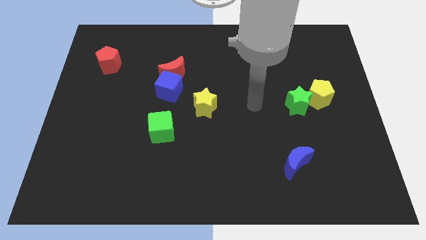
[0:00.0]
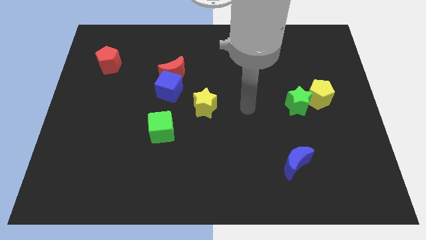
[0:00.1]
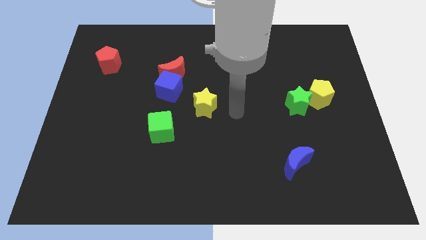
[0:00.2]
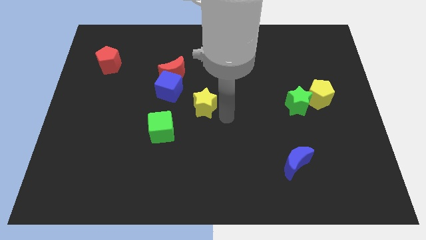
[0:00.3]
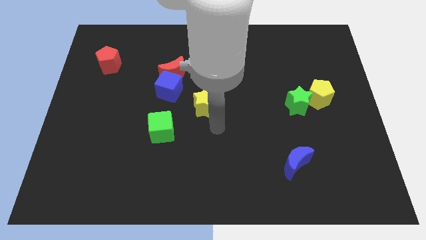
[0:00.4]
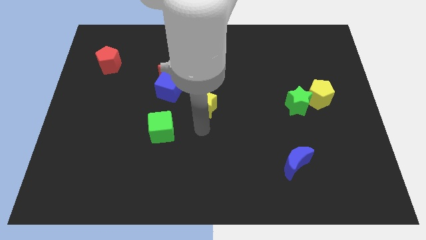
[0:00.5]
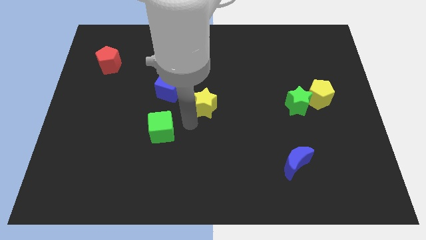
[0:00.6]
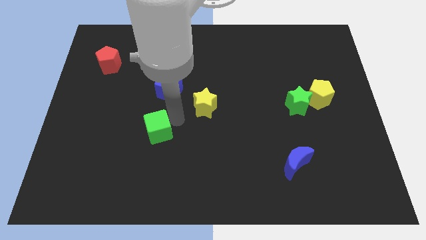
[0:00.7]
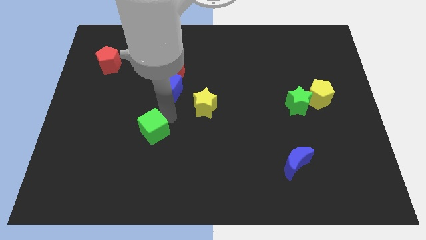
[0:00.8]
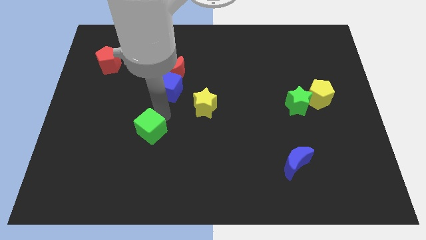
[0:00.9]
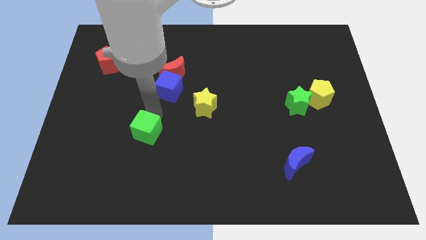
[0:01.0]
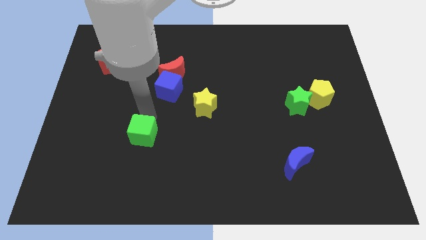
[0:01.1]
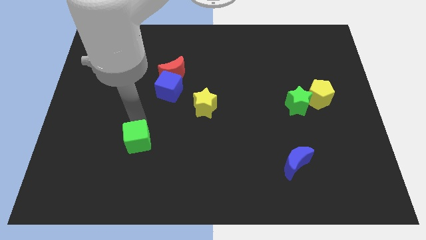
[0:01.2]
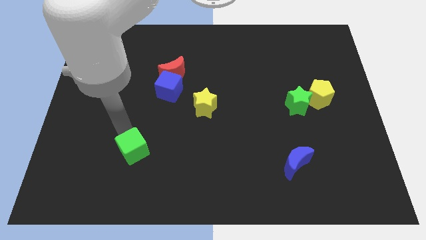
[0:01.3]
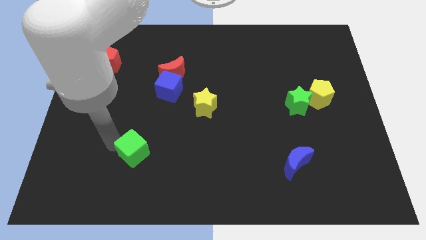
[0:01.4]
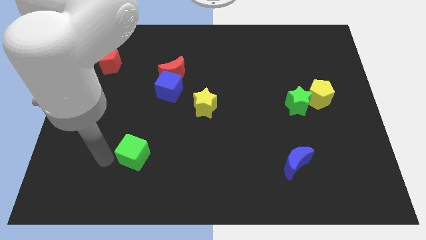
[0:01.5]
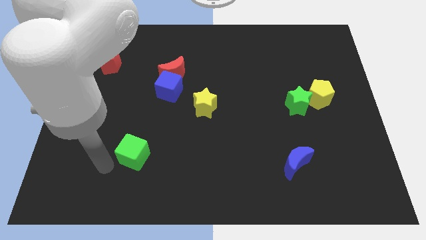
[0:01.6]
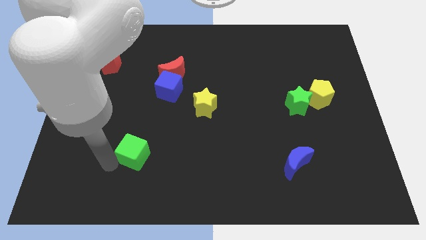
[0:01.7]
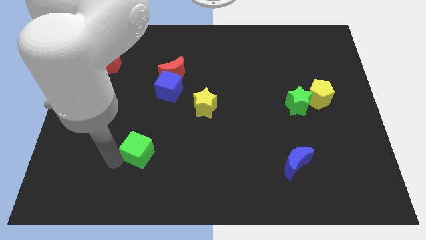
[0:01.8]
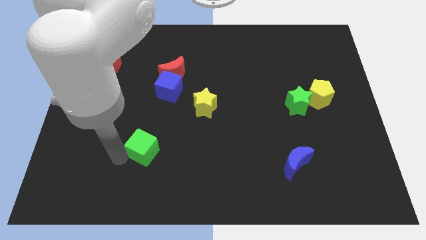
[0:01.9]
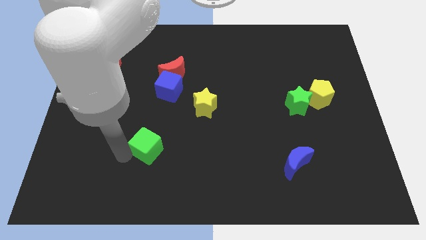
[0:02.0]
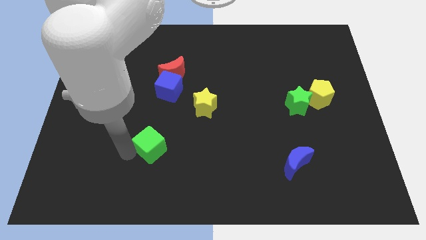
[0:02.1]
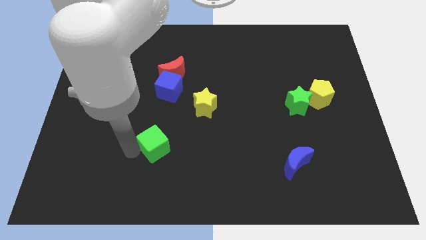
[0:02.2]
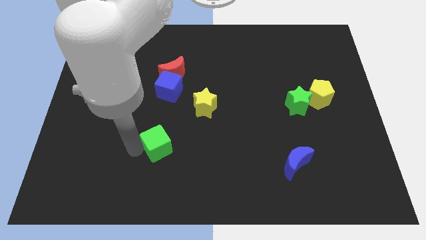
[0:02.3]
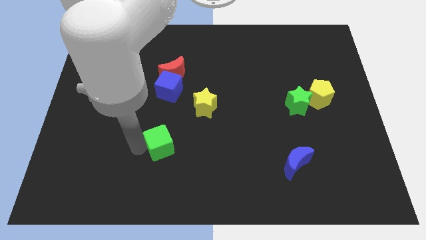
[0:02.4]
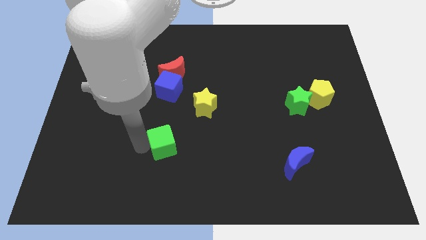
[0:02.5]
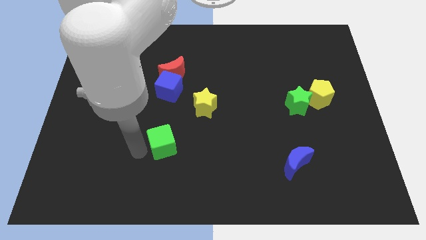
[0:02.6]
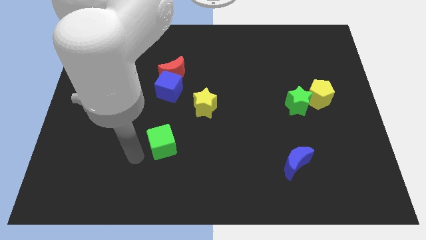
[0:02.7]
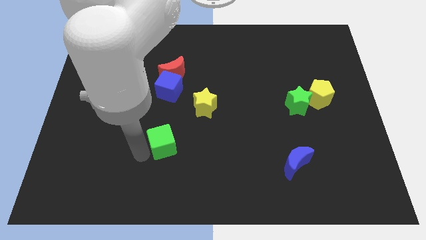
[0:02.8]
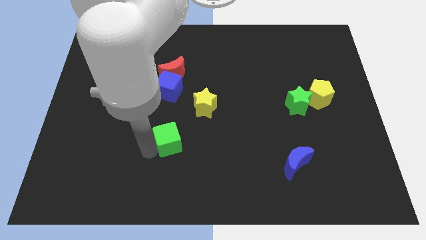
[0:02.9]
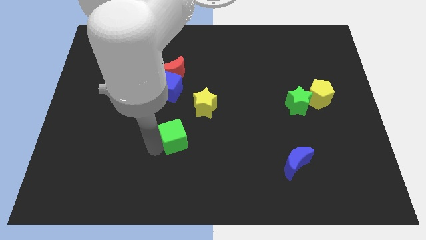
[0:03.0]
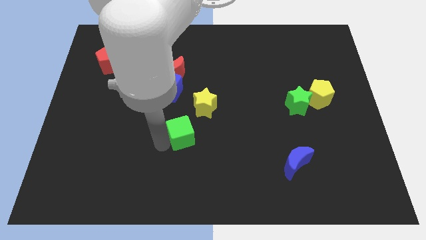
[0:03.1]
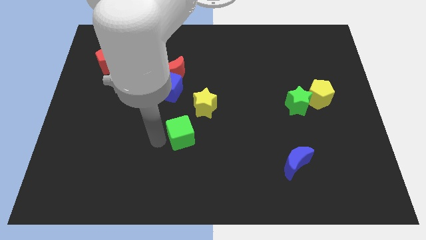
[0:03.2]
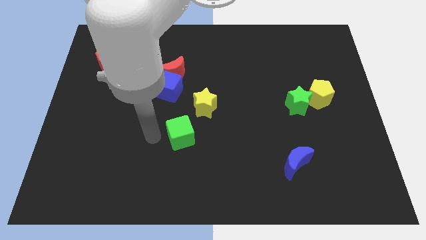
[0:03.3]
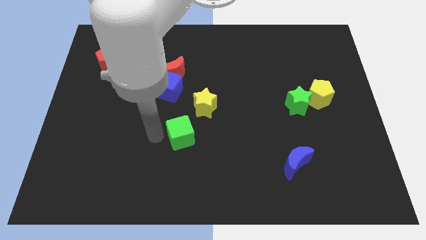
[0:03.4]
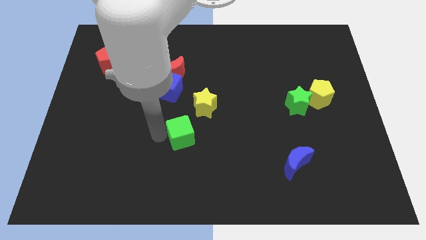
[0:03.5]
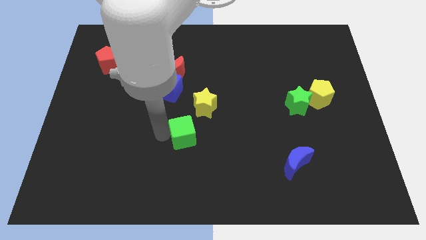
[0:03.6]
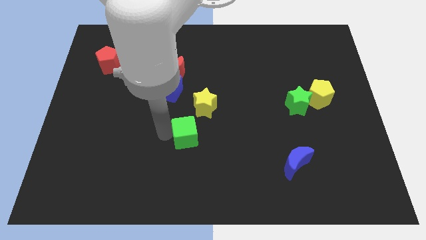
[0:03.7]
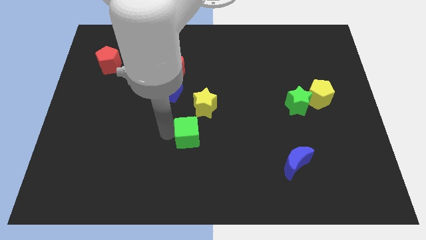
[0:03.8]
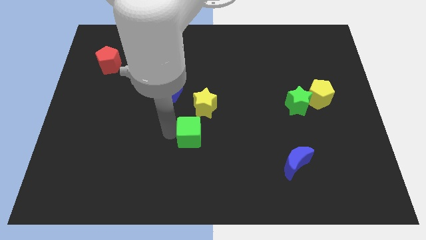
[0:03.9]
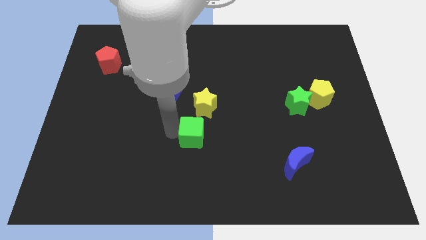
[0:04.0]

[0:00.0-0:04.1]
move the green cube right slightly

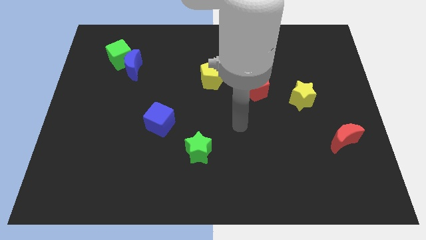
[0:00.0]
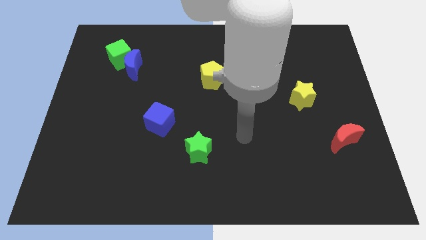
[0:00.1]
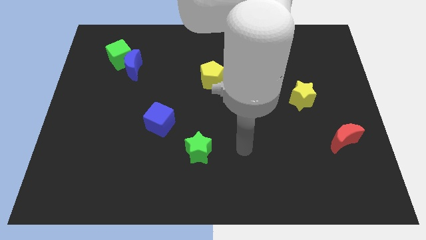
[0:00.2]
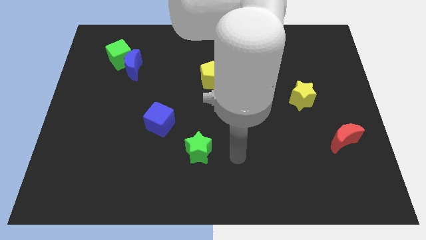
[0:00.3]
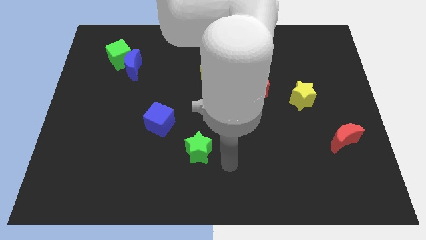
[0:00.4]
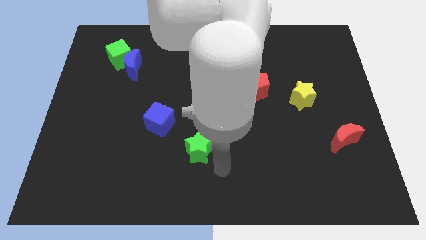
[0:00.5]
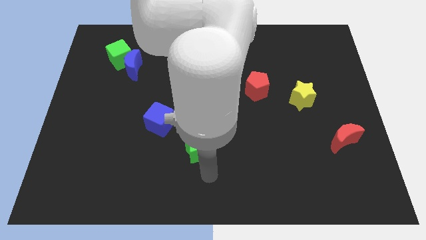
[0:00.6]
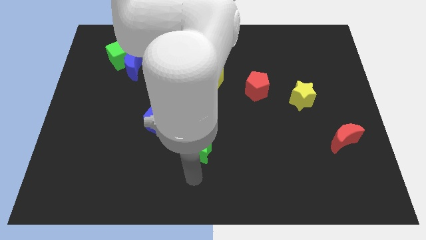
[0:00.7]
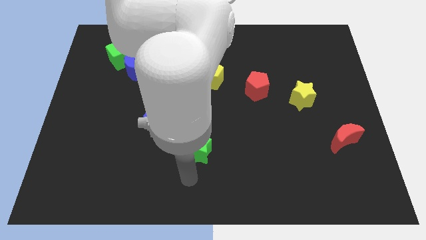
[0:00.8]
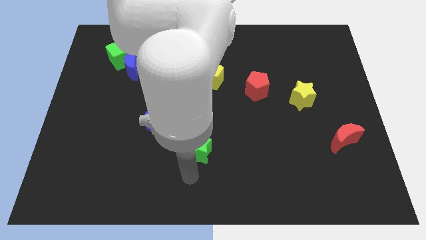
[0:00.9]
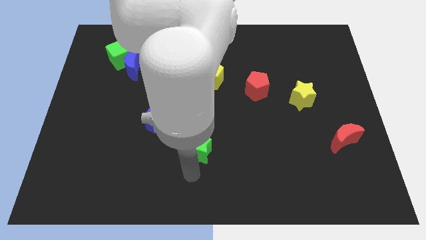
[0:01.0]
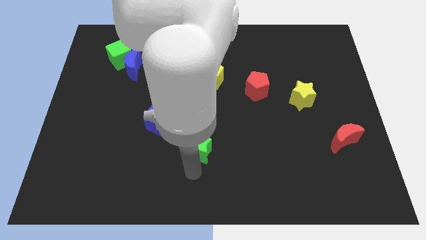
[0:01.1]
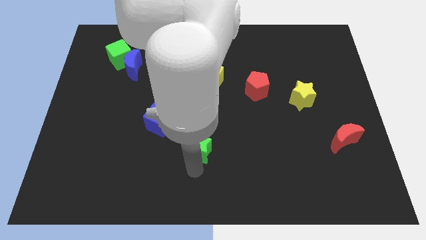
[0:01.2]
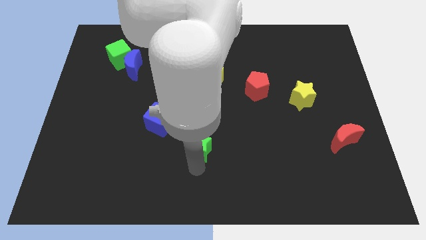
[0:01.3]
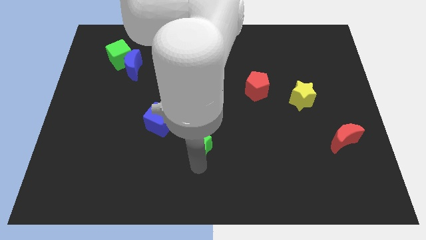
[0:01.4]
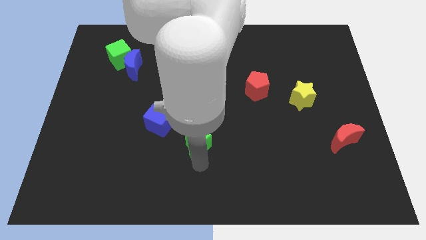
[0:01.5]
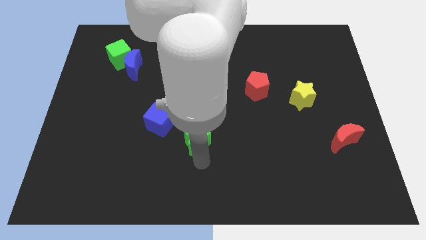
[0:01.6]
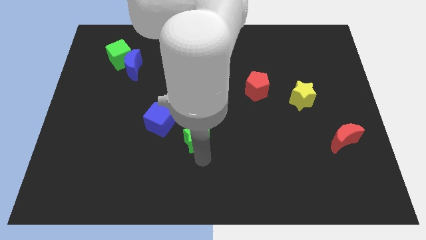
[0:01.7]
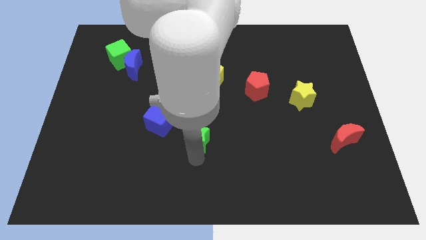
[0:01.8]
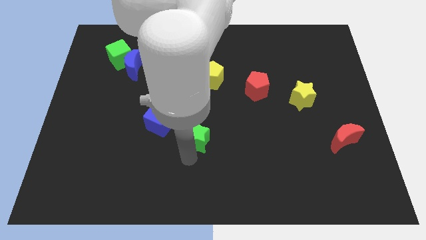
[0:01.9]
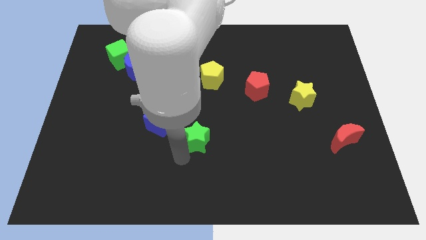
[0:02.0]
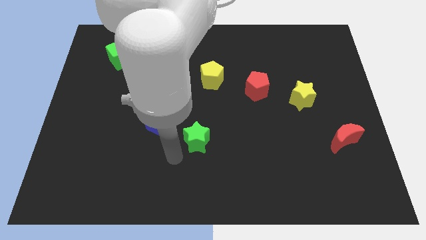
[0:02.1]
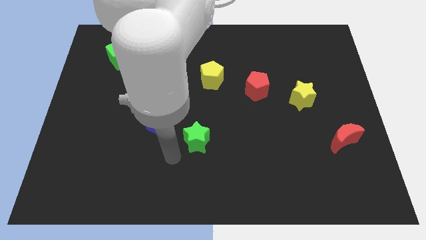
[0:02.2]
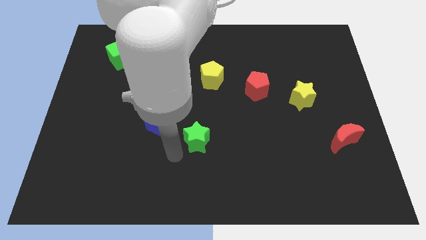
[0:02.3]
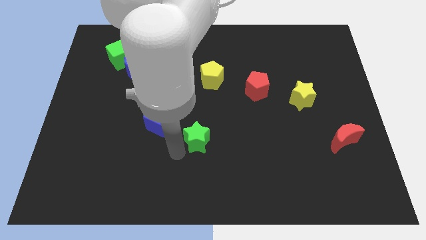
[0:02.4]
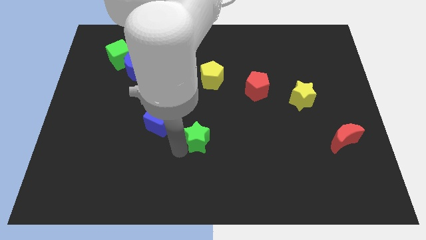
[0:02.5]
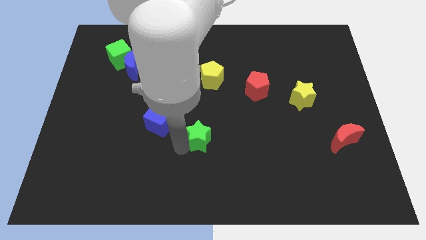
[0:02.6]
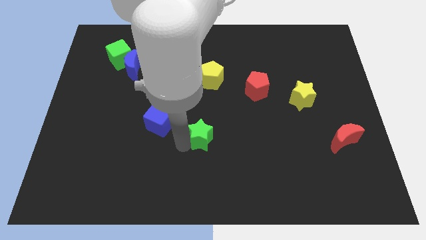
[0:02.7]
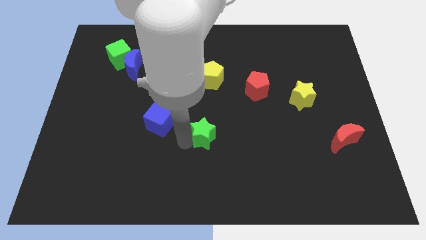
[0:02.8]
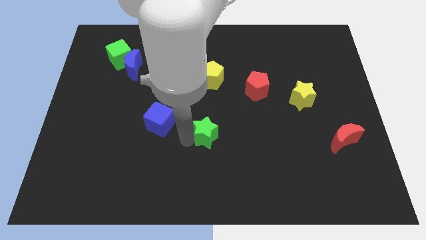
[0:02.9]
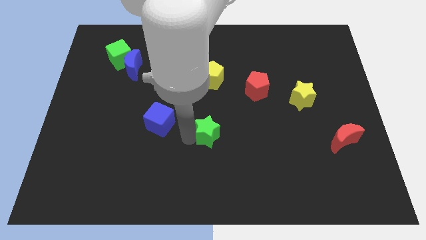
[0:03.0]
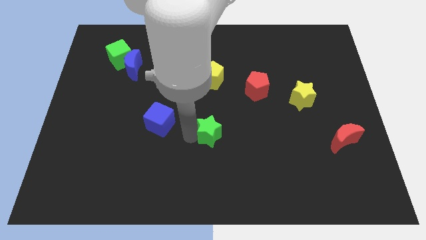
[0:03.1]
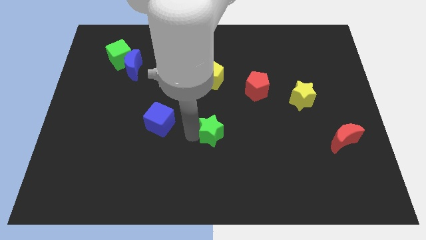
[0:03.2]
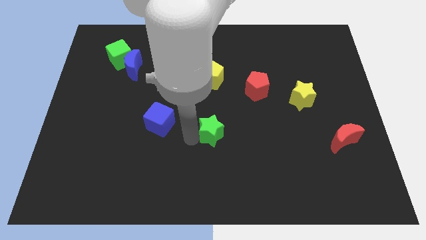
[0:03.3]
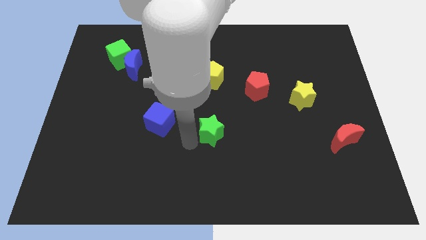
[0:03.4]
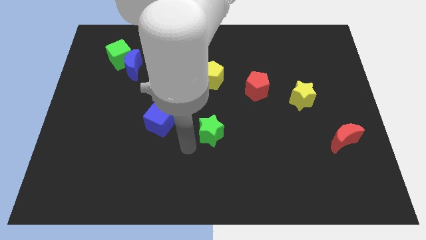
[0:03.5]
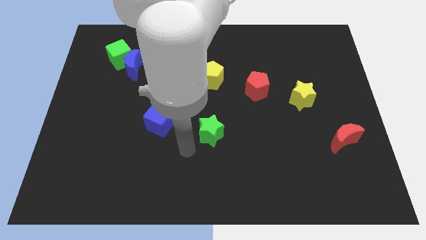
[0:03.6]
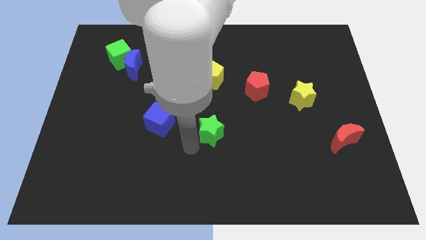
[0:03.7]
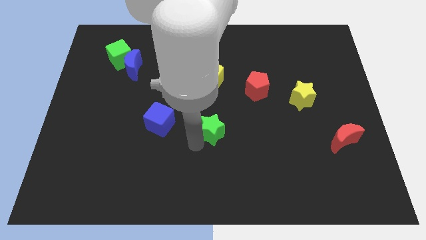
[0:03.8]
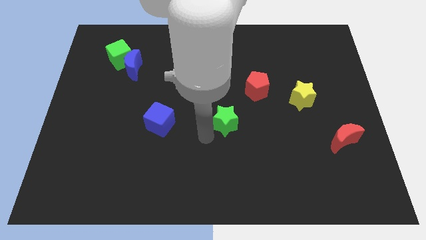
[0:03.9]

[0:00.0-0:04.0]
slightly push the green star upwards and right diagonally
